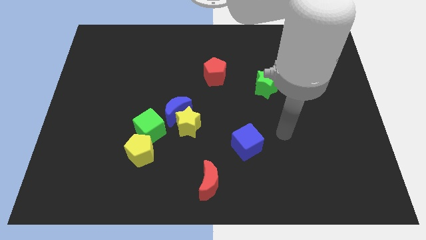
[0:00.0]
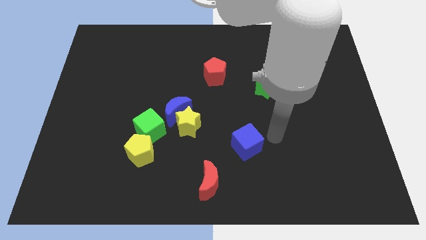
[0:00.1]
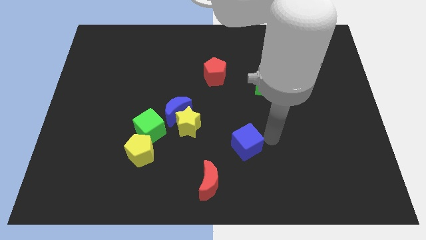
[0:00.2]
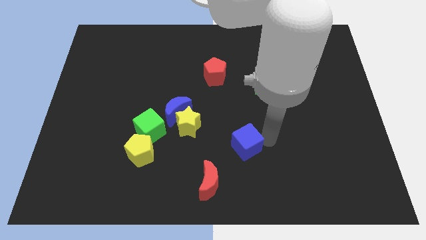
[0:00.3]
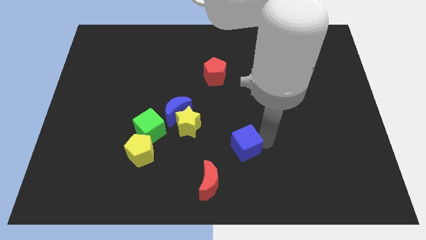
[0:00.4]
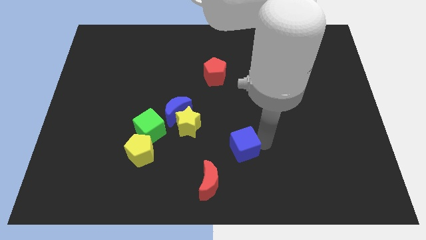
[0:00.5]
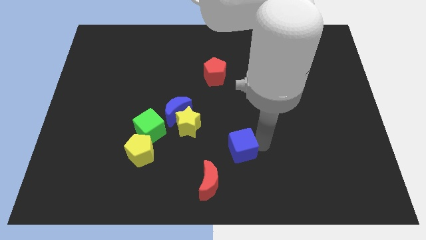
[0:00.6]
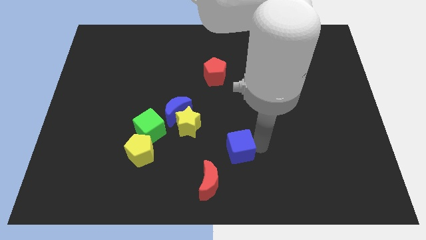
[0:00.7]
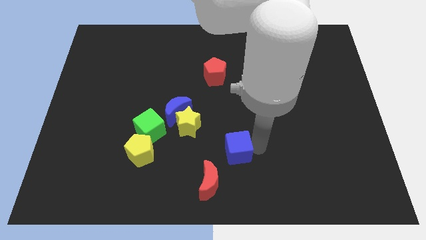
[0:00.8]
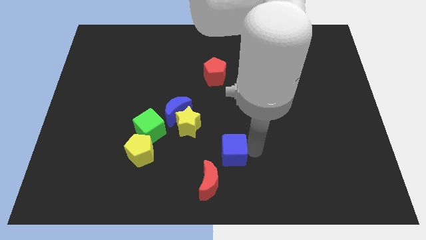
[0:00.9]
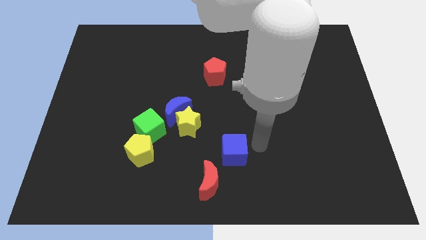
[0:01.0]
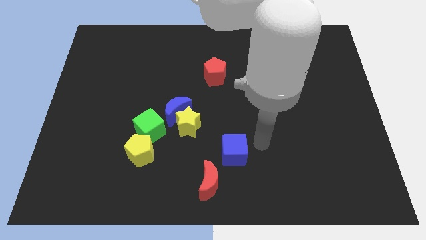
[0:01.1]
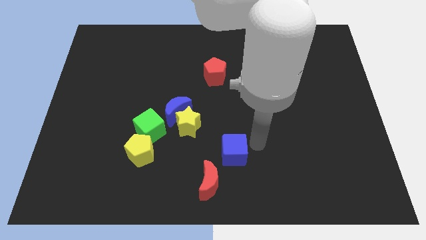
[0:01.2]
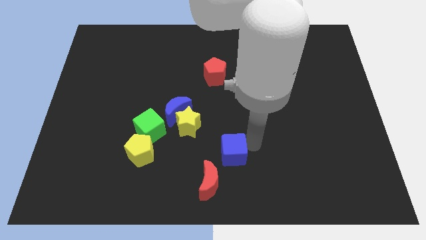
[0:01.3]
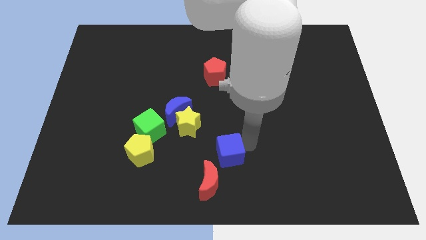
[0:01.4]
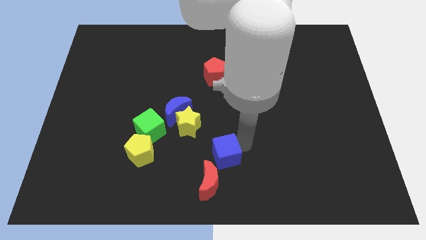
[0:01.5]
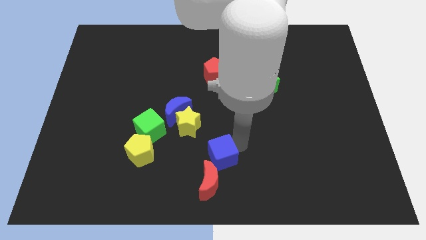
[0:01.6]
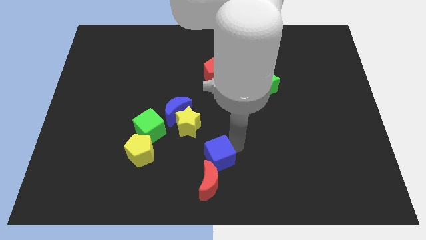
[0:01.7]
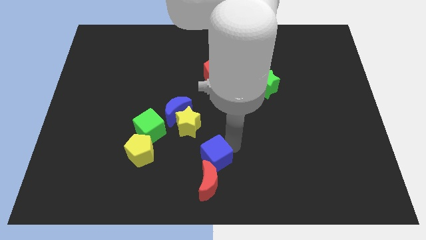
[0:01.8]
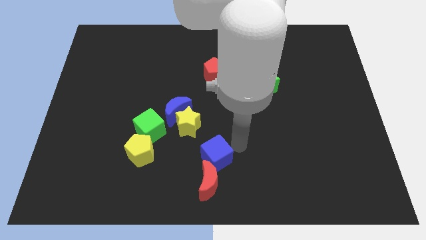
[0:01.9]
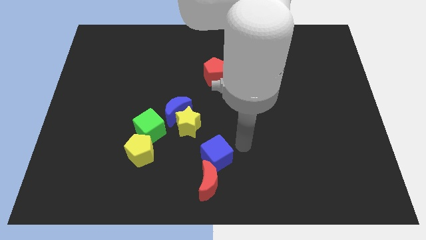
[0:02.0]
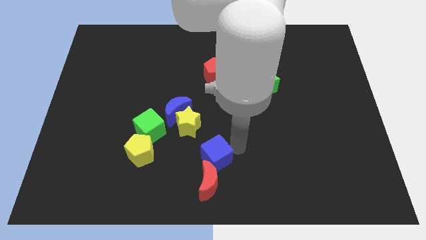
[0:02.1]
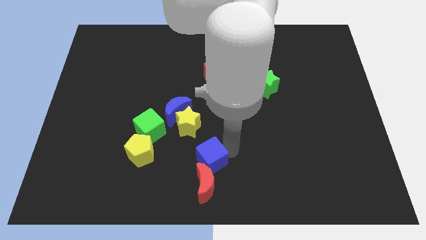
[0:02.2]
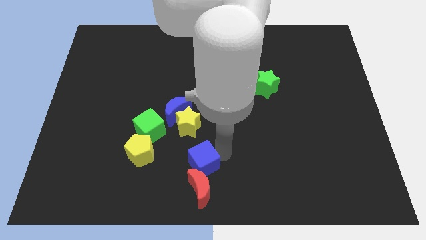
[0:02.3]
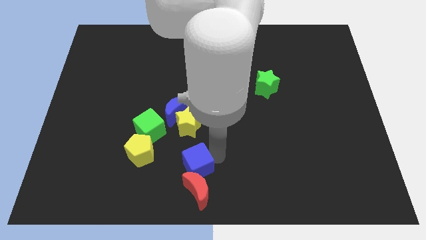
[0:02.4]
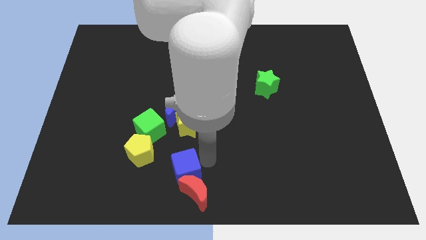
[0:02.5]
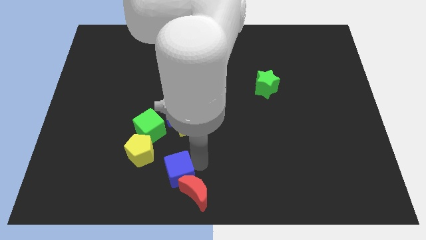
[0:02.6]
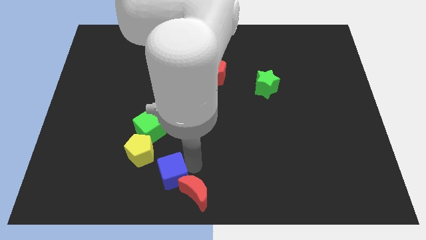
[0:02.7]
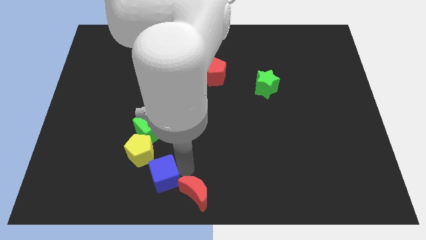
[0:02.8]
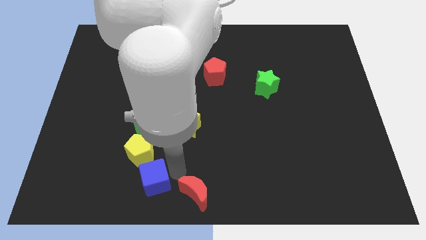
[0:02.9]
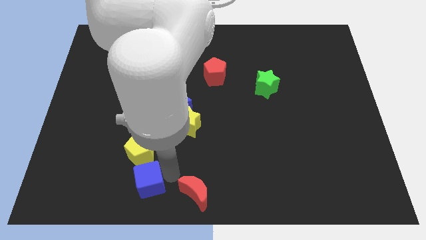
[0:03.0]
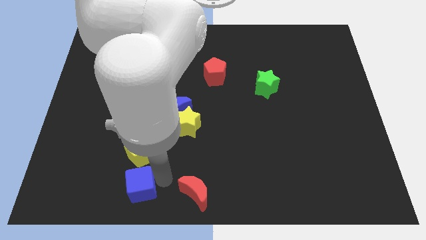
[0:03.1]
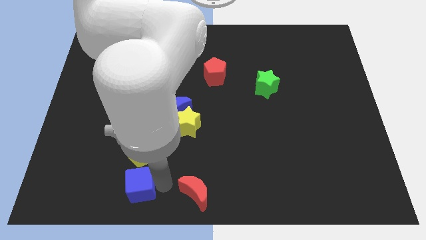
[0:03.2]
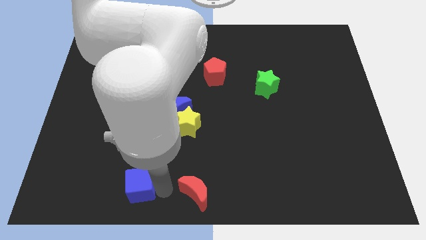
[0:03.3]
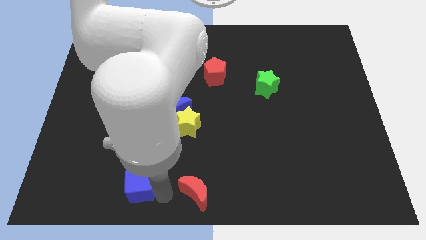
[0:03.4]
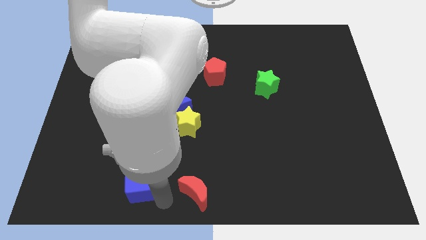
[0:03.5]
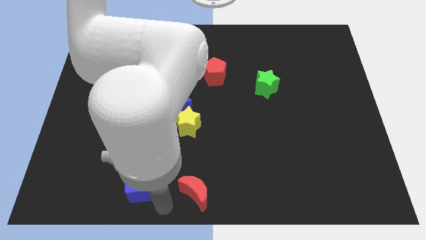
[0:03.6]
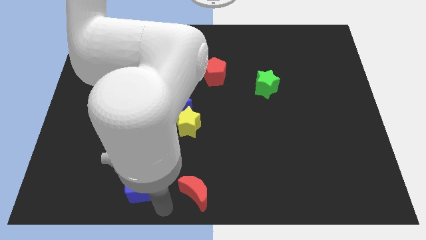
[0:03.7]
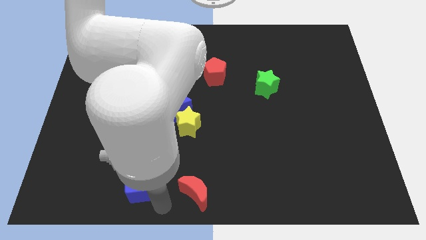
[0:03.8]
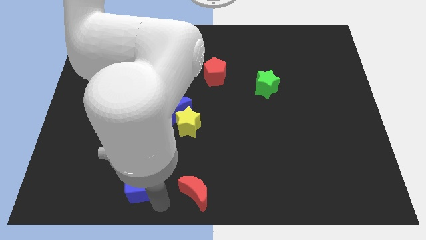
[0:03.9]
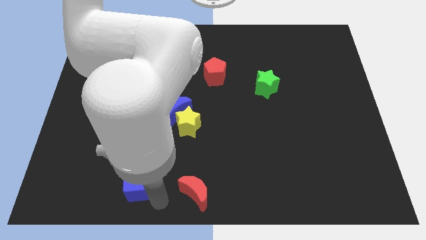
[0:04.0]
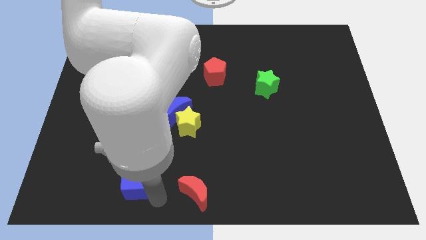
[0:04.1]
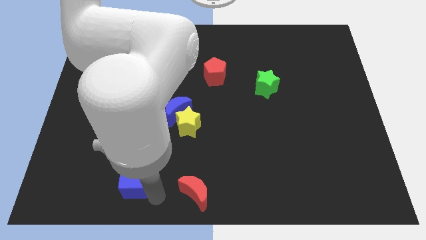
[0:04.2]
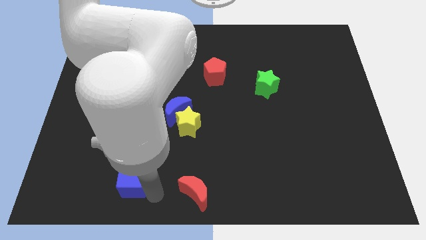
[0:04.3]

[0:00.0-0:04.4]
move the blue cube left

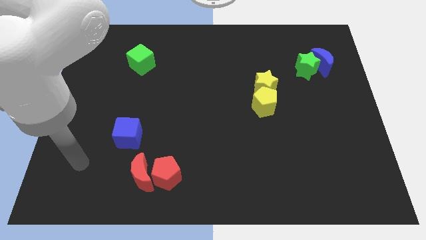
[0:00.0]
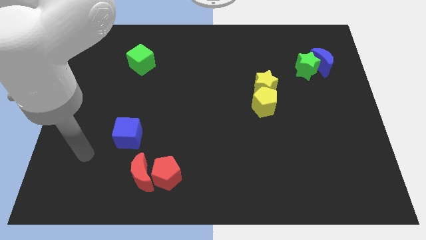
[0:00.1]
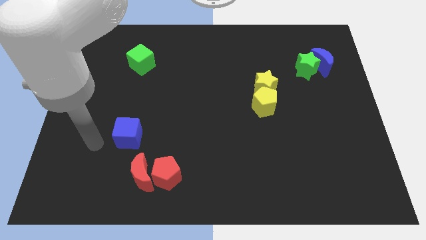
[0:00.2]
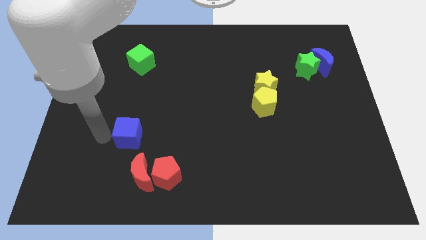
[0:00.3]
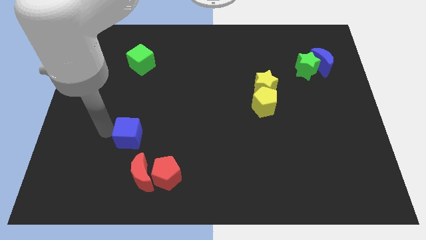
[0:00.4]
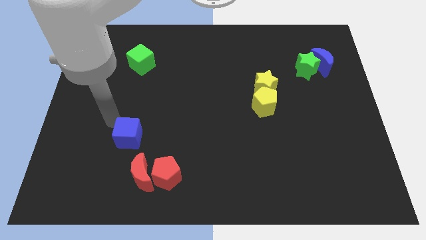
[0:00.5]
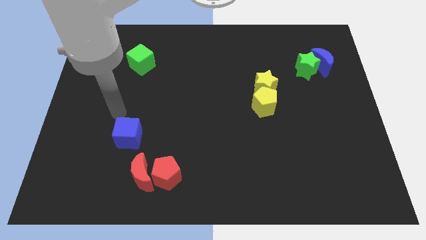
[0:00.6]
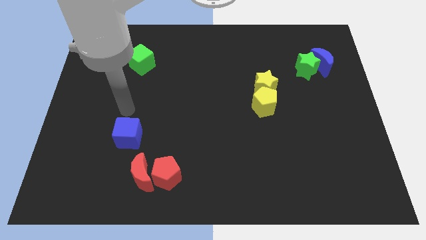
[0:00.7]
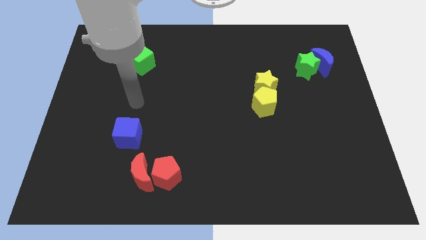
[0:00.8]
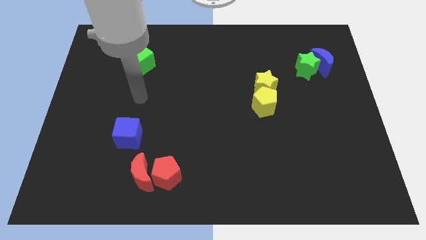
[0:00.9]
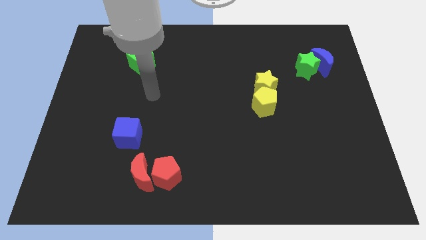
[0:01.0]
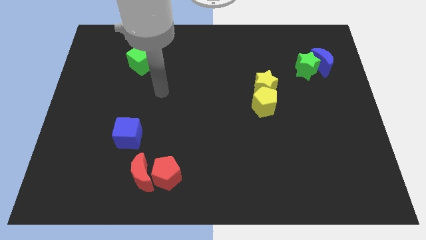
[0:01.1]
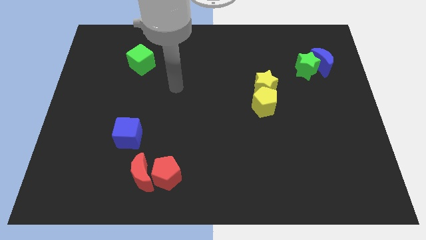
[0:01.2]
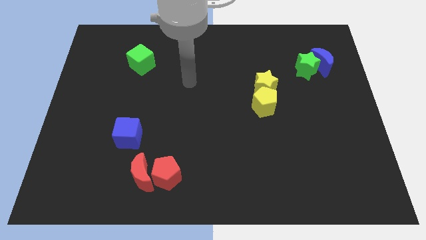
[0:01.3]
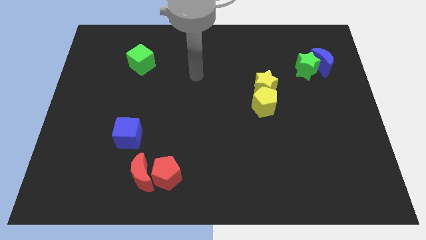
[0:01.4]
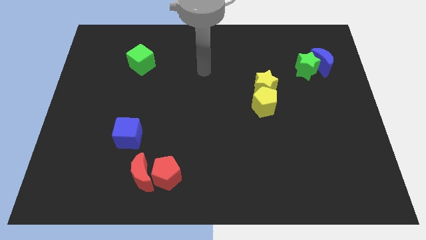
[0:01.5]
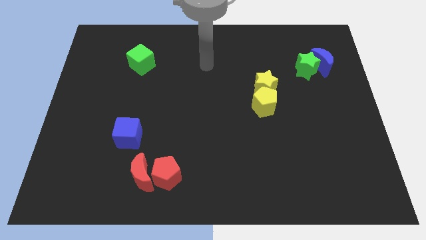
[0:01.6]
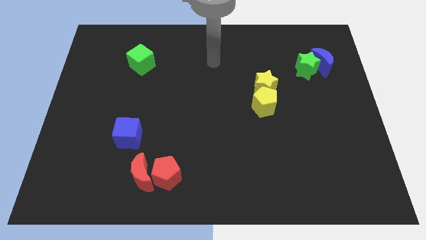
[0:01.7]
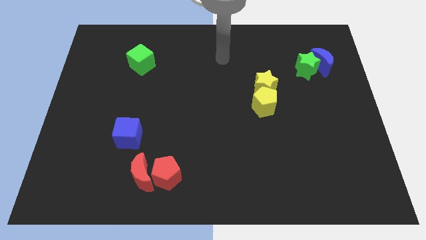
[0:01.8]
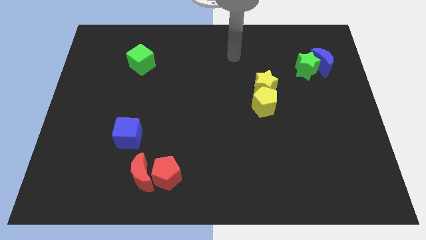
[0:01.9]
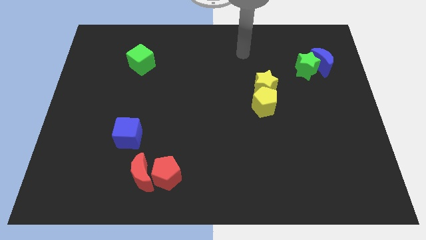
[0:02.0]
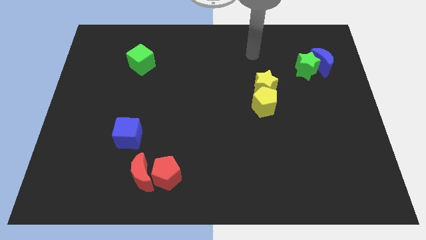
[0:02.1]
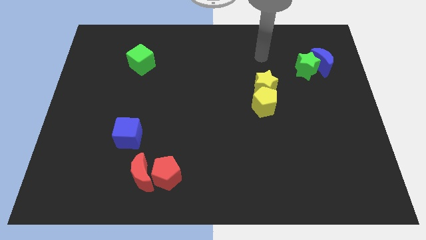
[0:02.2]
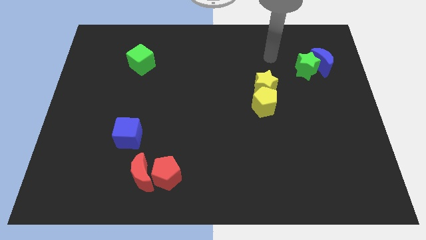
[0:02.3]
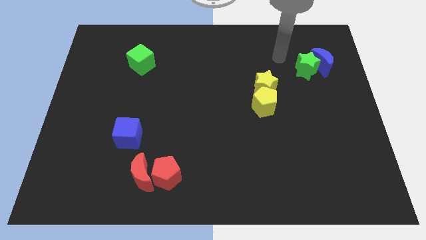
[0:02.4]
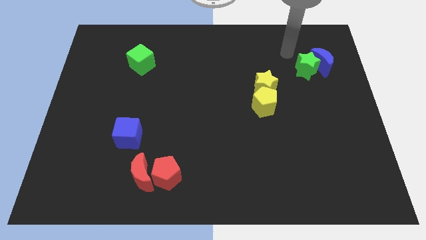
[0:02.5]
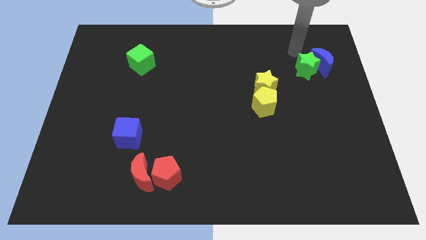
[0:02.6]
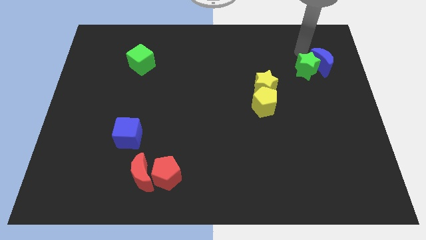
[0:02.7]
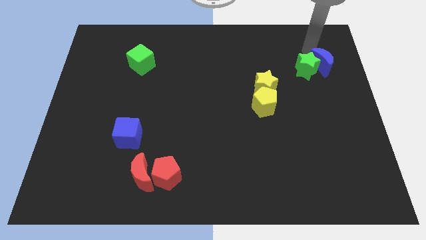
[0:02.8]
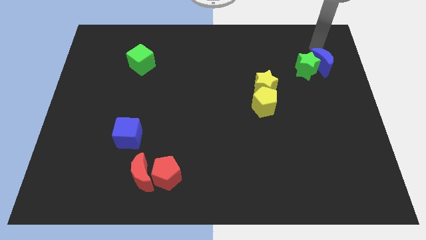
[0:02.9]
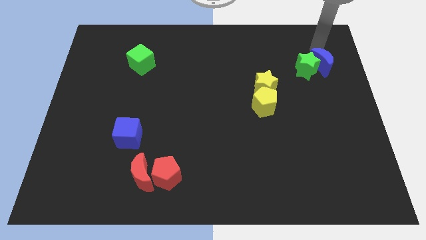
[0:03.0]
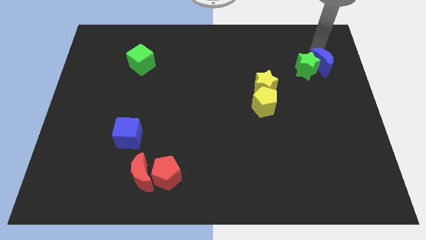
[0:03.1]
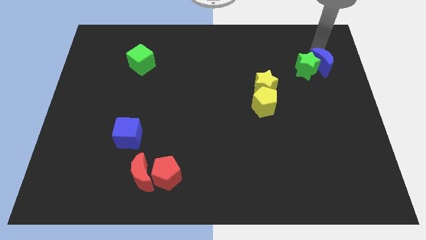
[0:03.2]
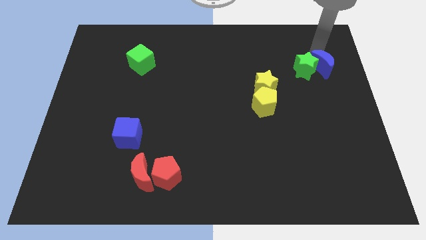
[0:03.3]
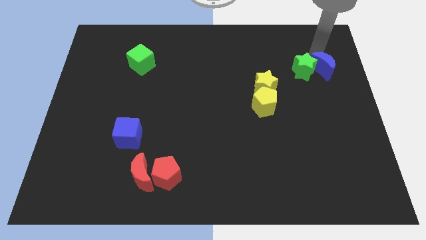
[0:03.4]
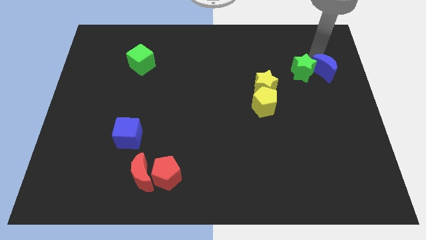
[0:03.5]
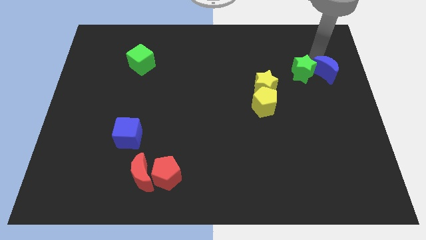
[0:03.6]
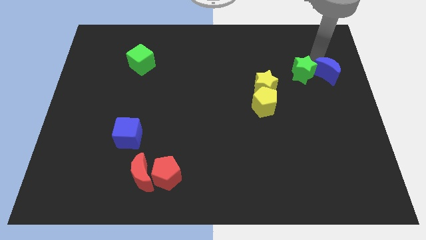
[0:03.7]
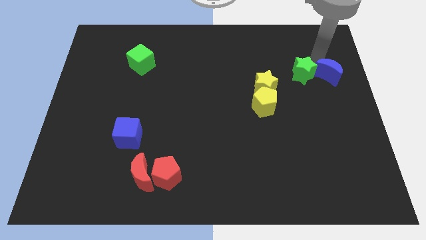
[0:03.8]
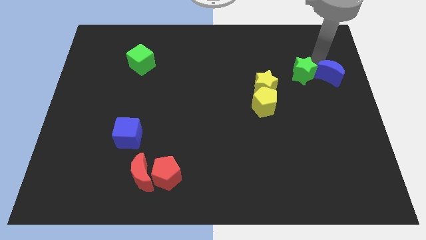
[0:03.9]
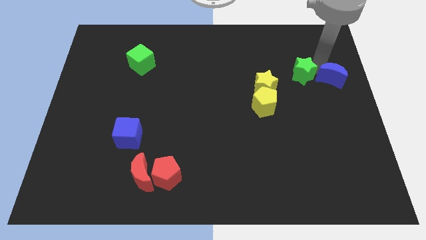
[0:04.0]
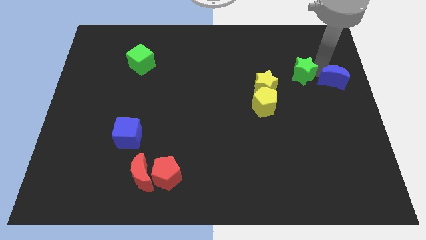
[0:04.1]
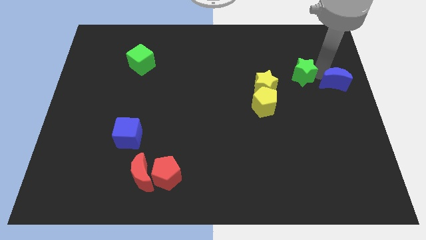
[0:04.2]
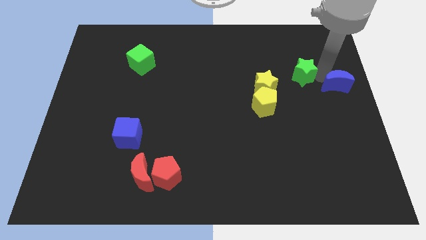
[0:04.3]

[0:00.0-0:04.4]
push the blue moon down slightly
